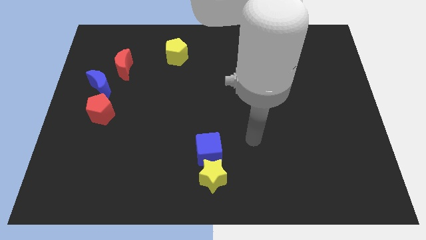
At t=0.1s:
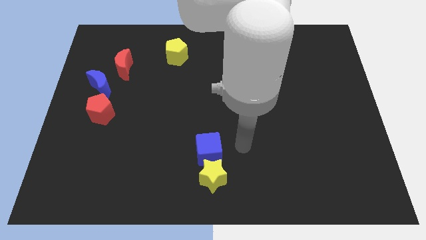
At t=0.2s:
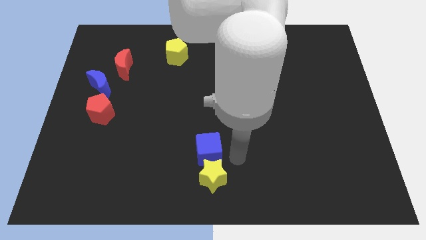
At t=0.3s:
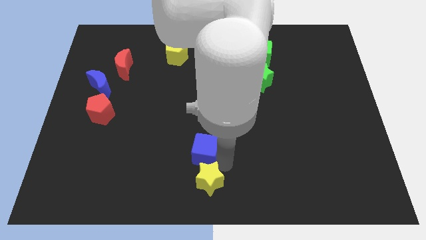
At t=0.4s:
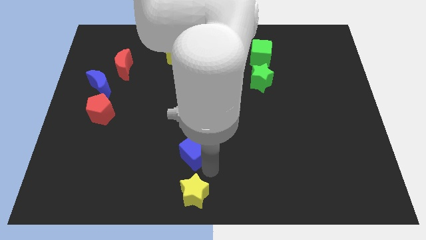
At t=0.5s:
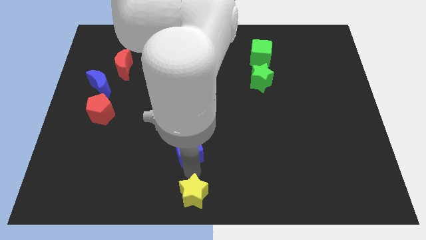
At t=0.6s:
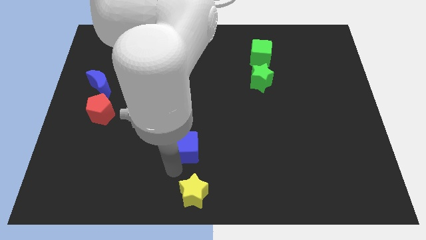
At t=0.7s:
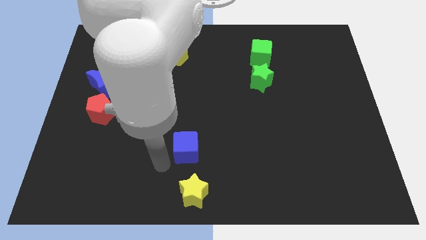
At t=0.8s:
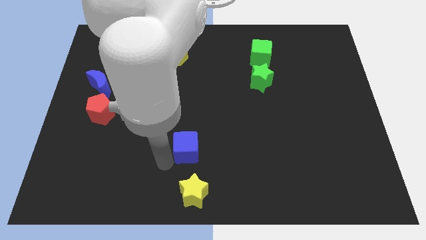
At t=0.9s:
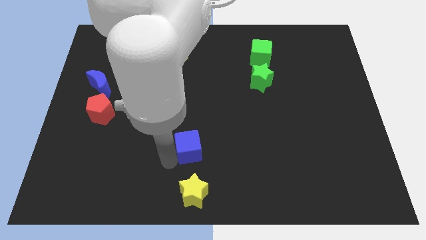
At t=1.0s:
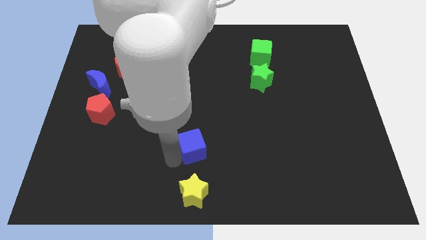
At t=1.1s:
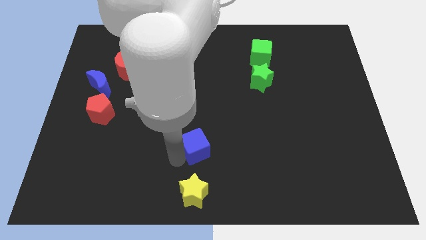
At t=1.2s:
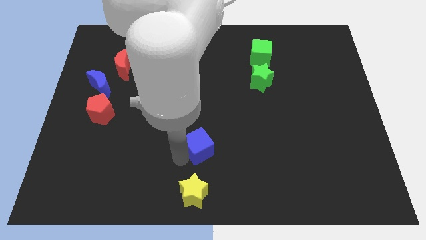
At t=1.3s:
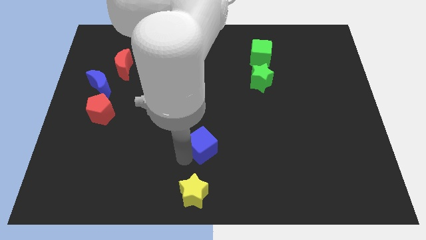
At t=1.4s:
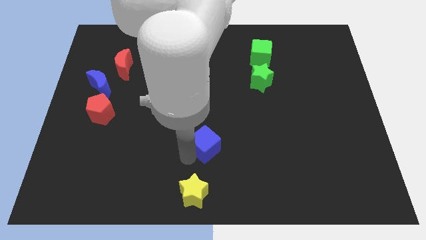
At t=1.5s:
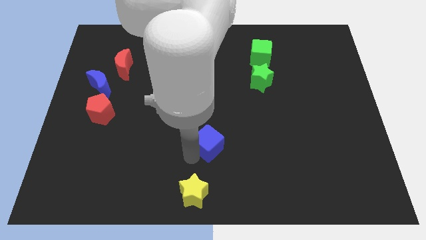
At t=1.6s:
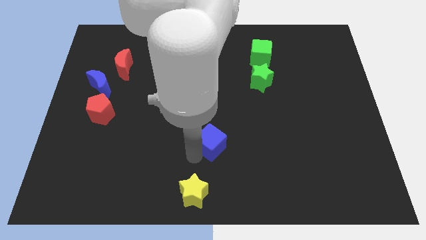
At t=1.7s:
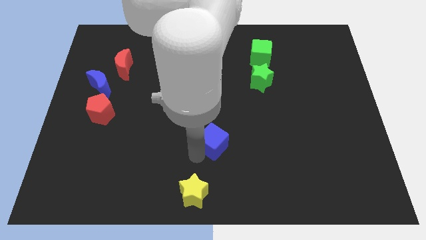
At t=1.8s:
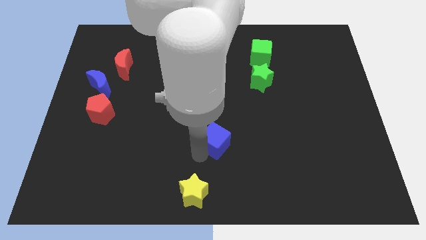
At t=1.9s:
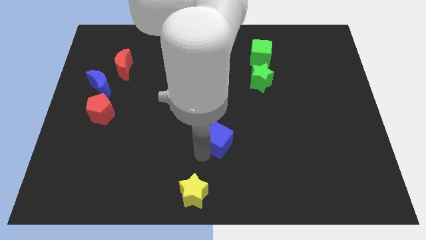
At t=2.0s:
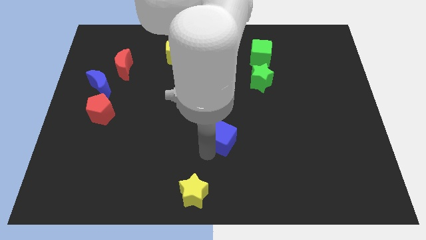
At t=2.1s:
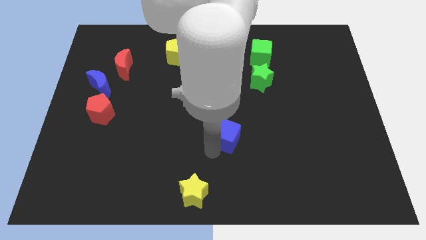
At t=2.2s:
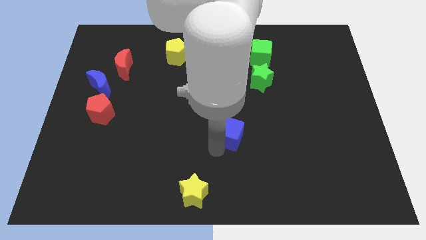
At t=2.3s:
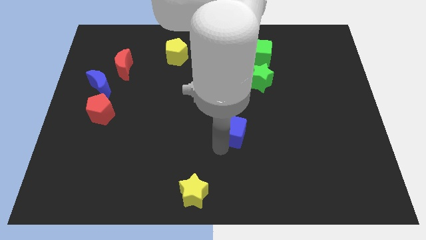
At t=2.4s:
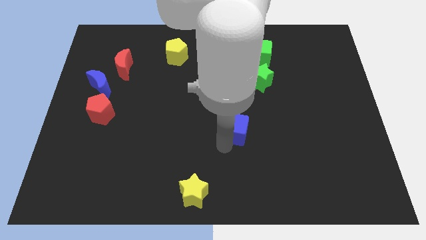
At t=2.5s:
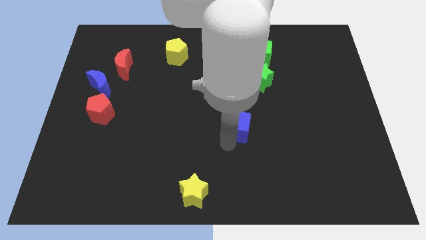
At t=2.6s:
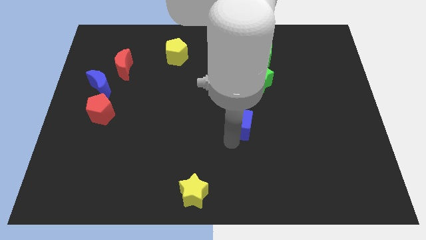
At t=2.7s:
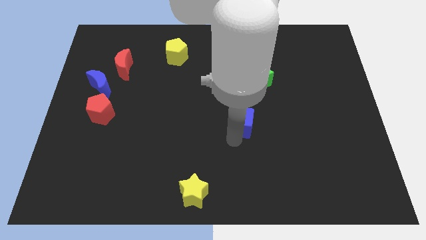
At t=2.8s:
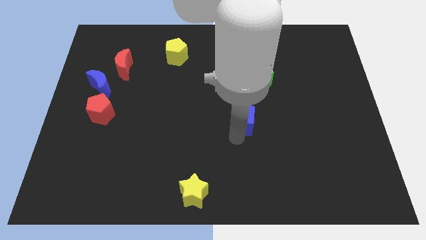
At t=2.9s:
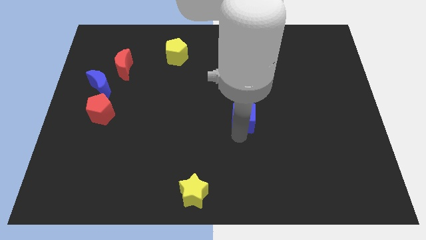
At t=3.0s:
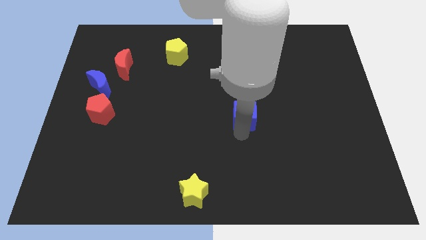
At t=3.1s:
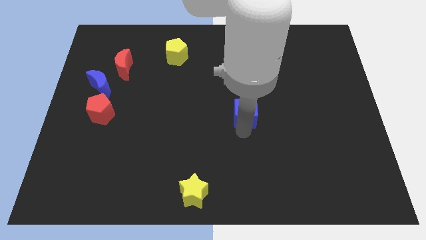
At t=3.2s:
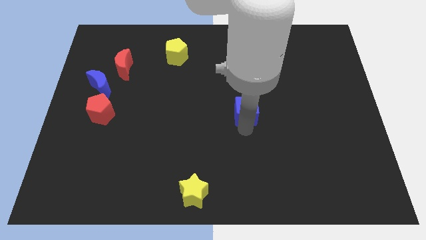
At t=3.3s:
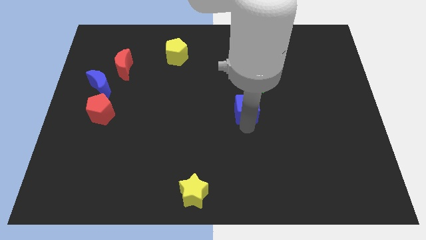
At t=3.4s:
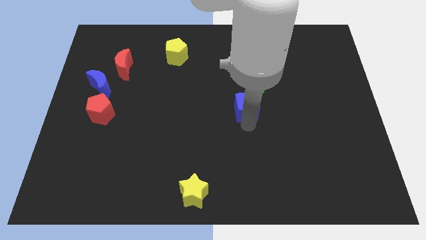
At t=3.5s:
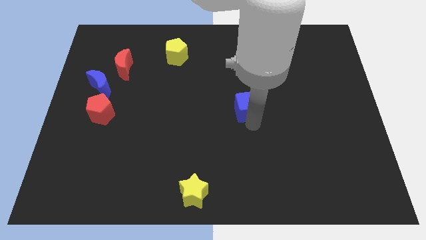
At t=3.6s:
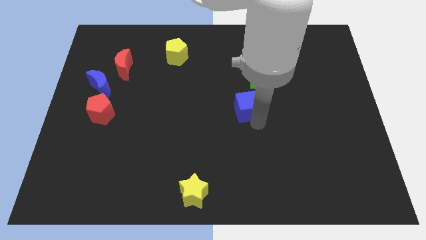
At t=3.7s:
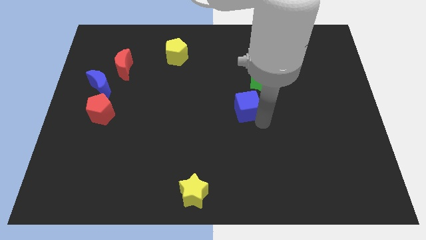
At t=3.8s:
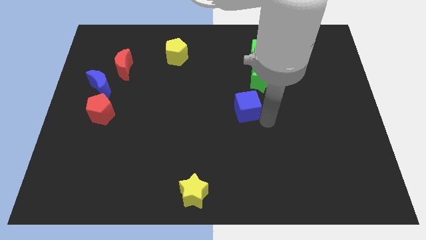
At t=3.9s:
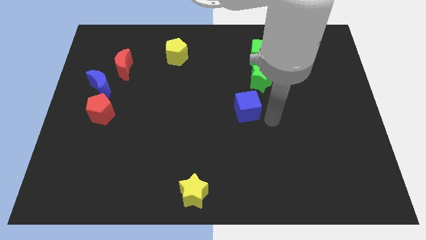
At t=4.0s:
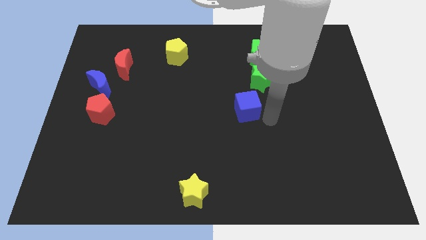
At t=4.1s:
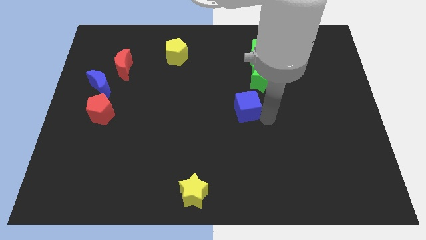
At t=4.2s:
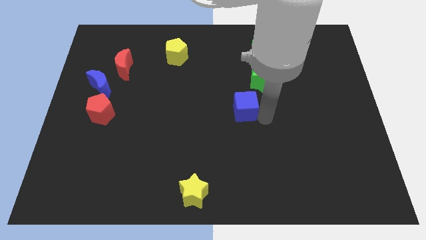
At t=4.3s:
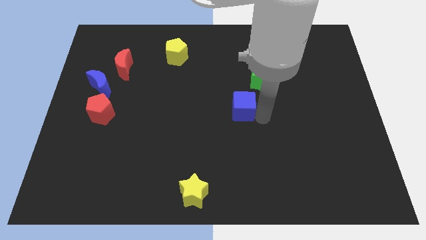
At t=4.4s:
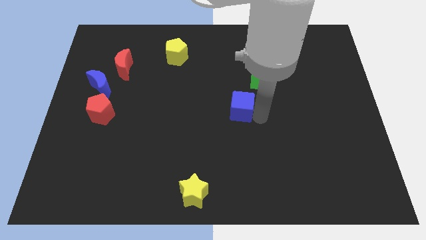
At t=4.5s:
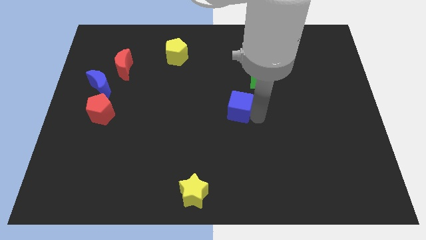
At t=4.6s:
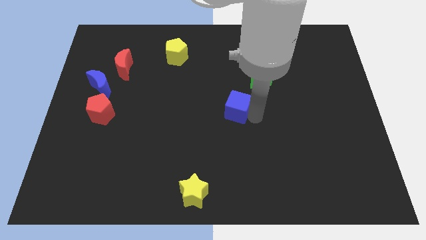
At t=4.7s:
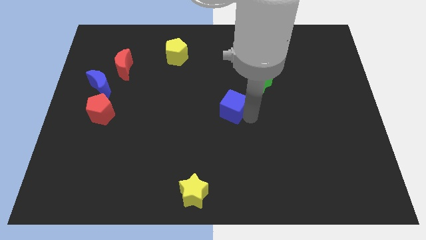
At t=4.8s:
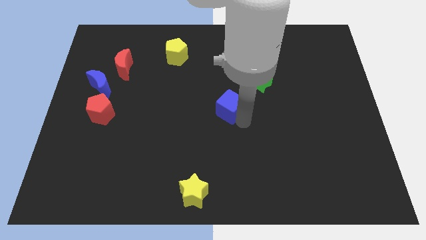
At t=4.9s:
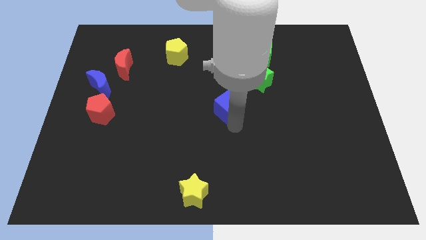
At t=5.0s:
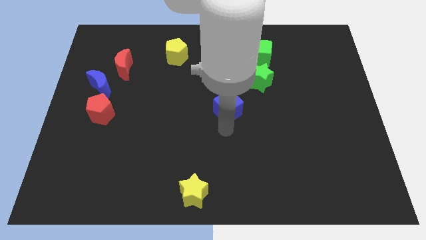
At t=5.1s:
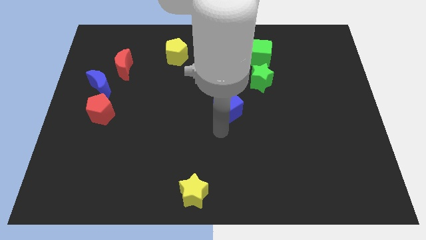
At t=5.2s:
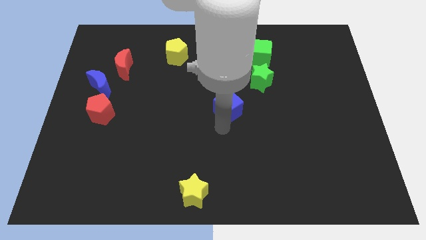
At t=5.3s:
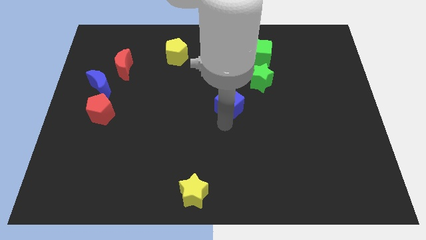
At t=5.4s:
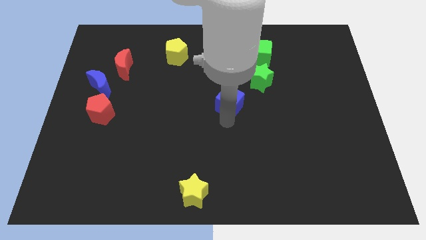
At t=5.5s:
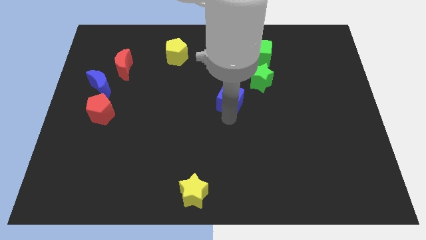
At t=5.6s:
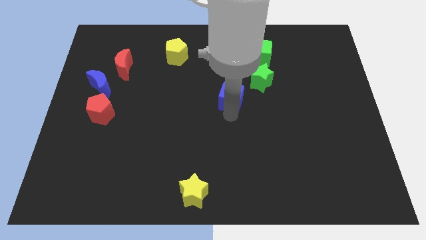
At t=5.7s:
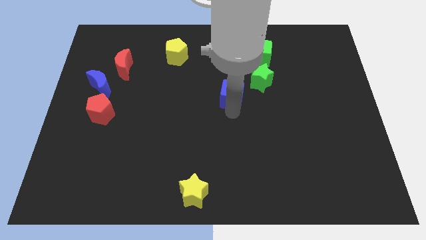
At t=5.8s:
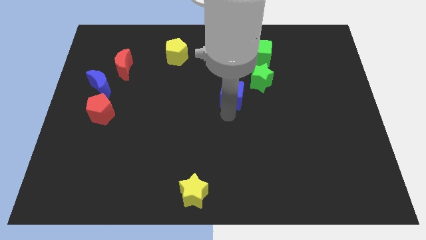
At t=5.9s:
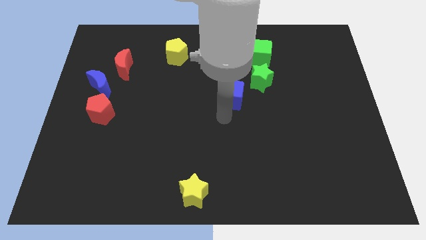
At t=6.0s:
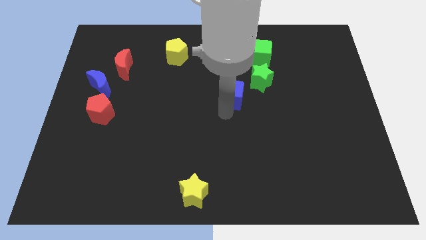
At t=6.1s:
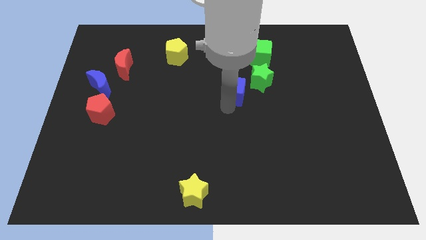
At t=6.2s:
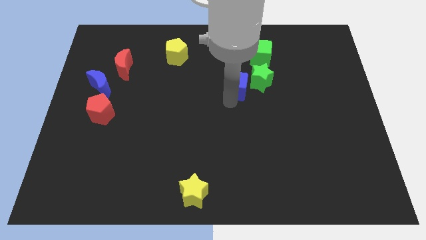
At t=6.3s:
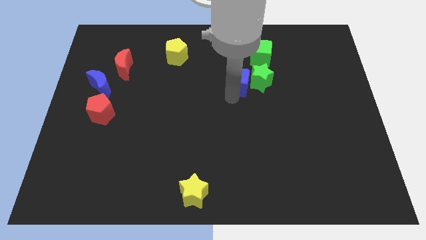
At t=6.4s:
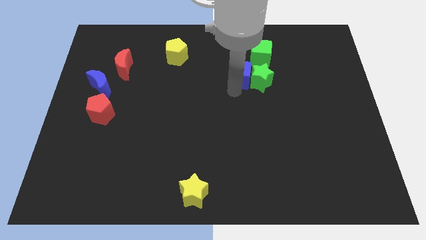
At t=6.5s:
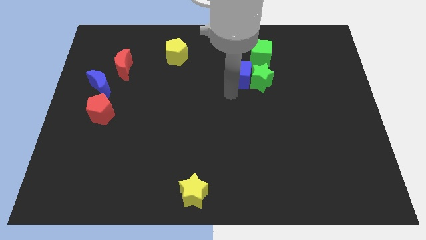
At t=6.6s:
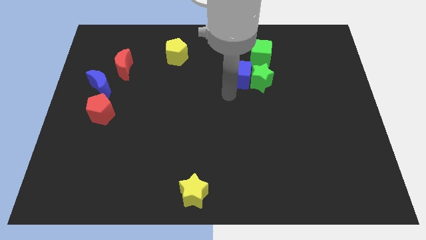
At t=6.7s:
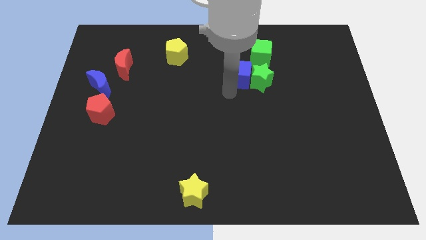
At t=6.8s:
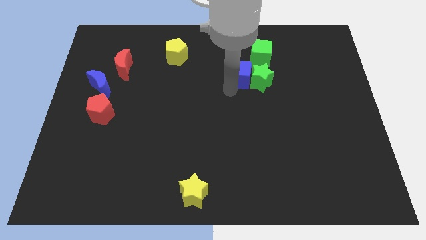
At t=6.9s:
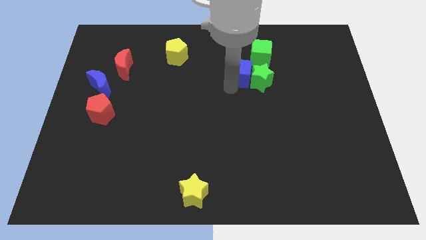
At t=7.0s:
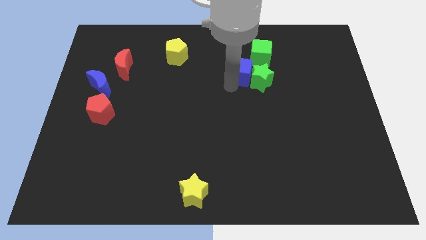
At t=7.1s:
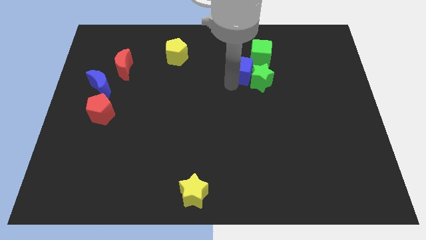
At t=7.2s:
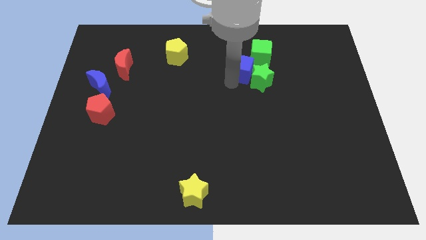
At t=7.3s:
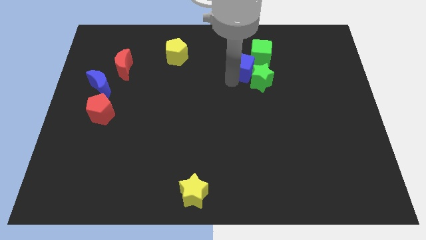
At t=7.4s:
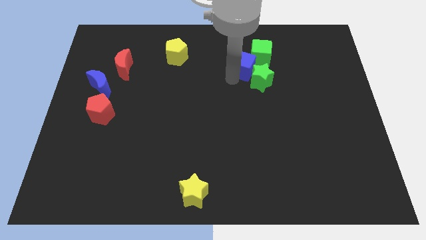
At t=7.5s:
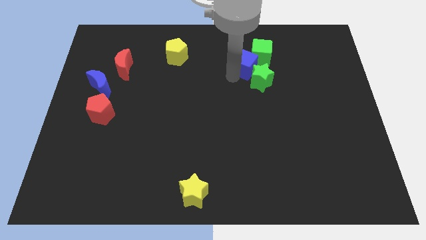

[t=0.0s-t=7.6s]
push the blue cube next to the green cube
